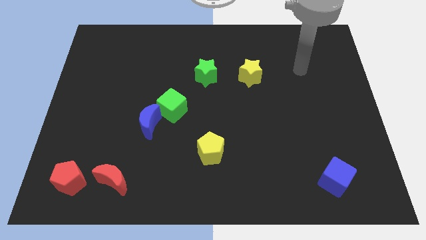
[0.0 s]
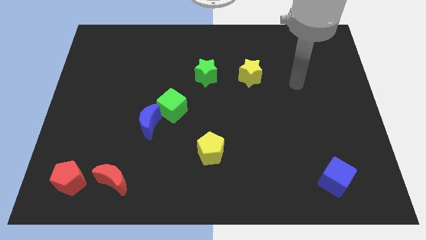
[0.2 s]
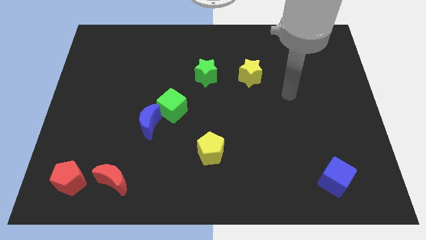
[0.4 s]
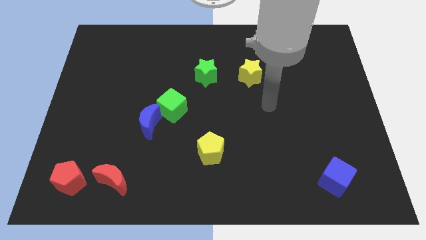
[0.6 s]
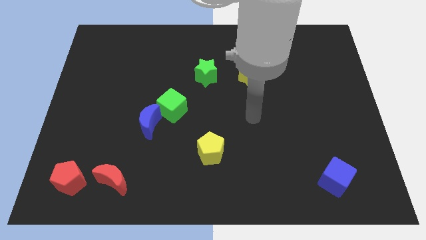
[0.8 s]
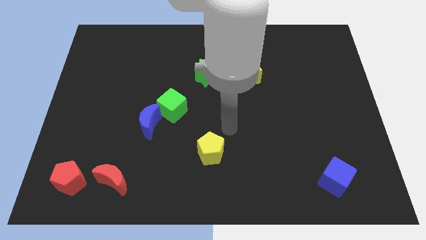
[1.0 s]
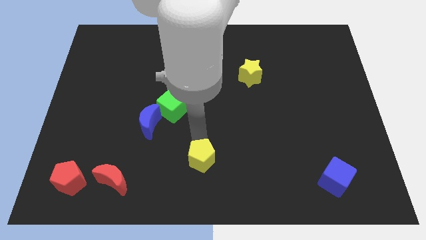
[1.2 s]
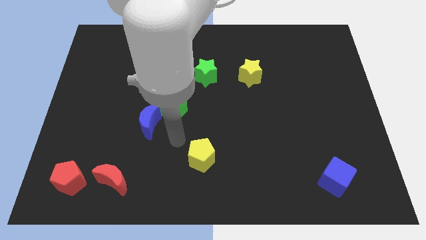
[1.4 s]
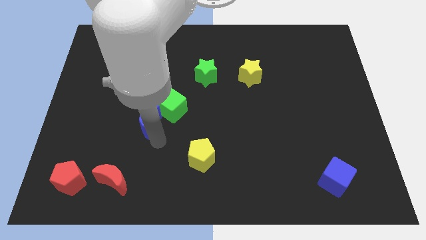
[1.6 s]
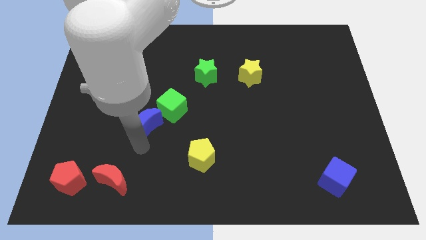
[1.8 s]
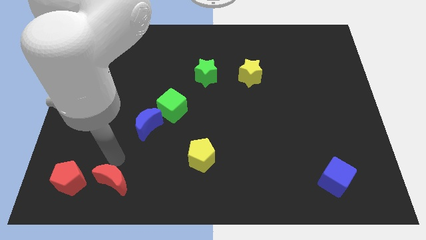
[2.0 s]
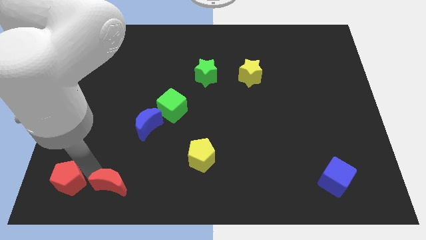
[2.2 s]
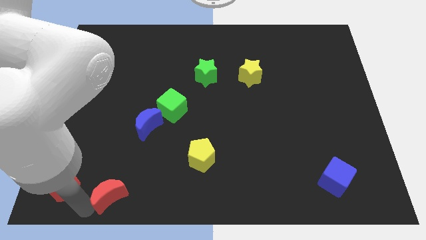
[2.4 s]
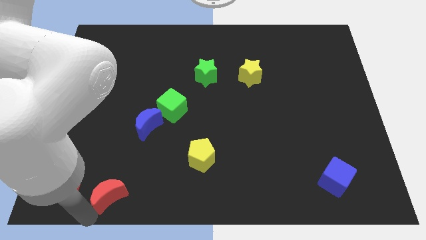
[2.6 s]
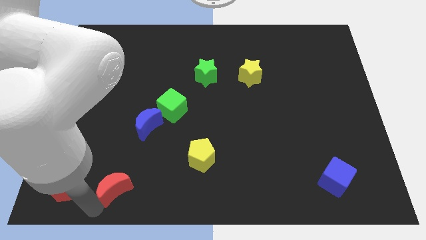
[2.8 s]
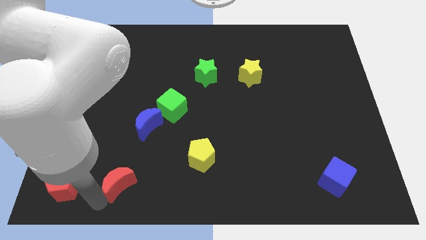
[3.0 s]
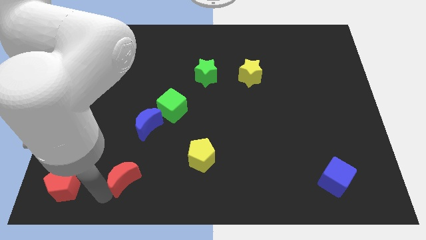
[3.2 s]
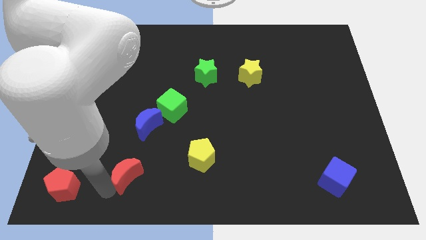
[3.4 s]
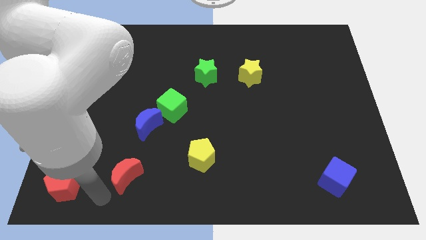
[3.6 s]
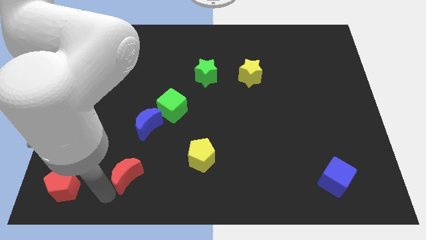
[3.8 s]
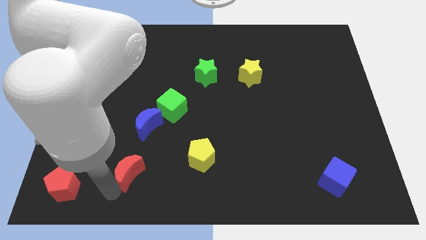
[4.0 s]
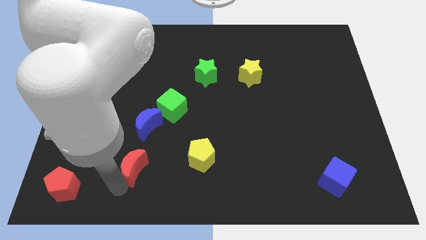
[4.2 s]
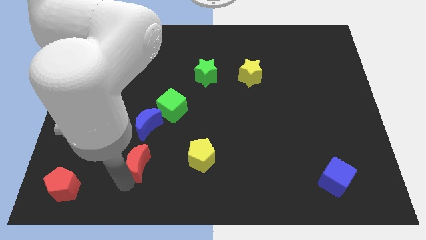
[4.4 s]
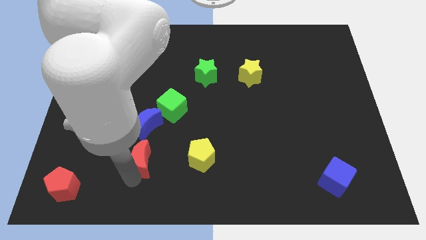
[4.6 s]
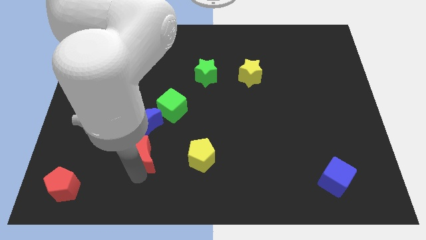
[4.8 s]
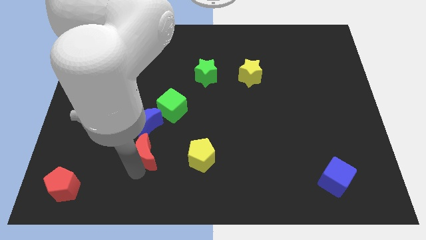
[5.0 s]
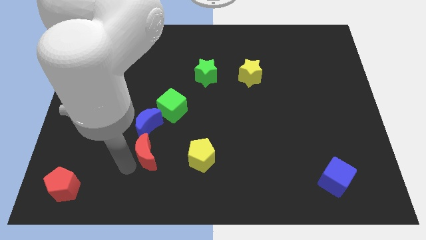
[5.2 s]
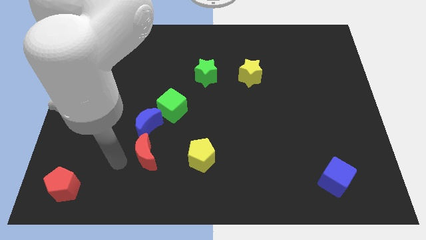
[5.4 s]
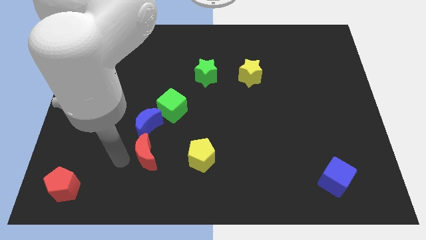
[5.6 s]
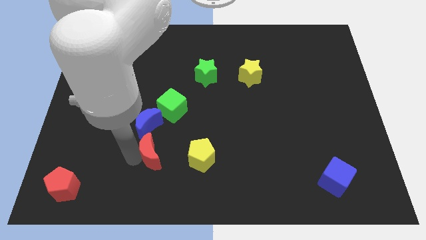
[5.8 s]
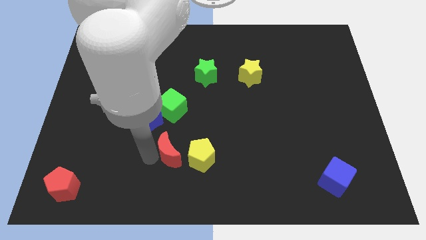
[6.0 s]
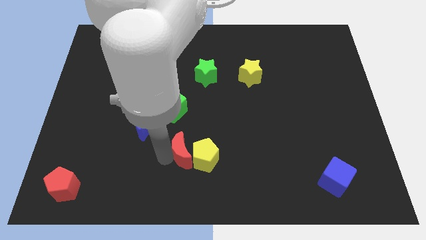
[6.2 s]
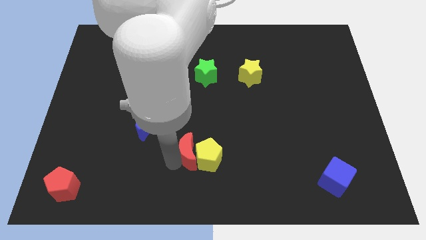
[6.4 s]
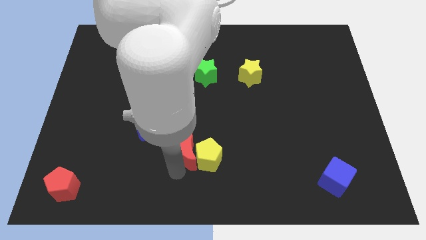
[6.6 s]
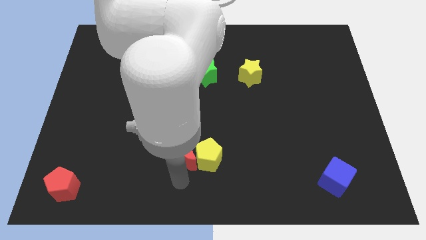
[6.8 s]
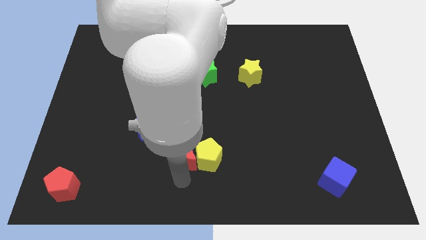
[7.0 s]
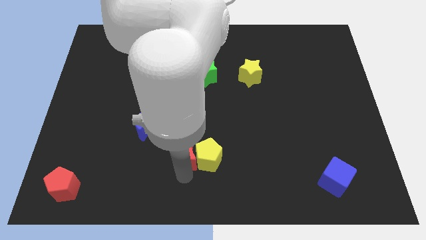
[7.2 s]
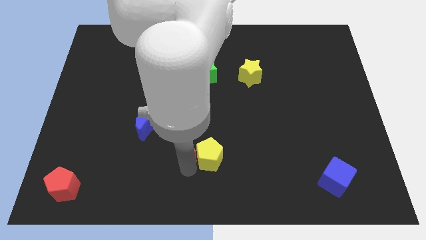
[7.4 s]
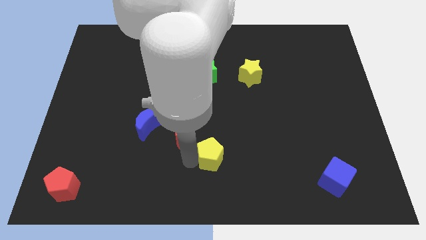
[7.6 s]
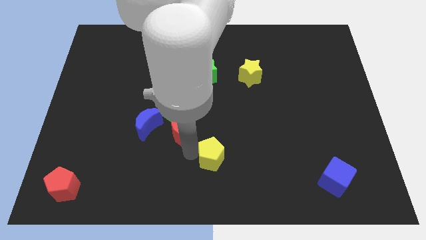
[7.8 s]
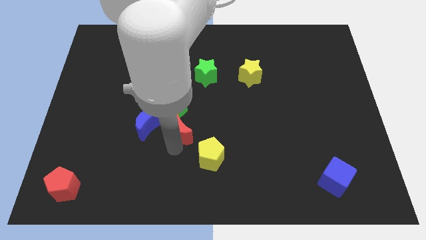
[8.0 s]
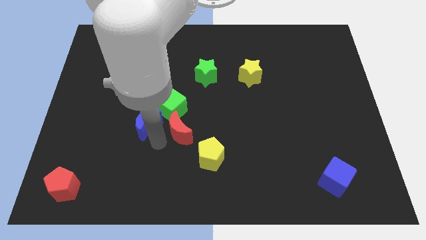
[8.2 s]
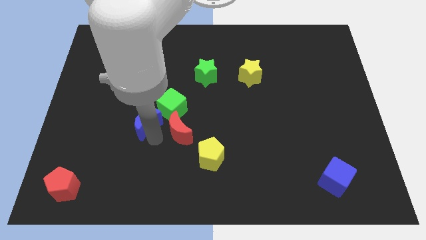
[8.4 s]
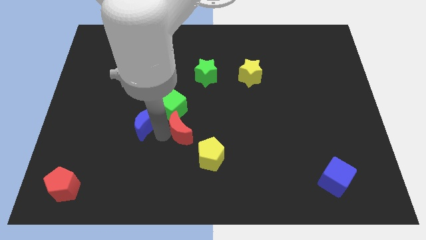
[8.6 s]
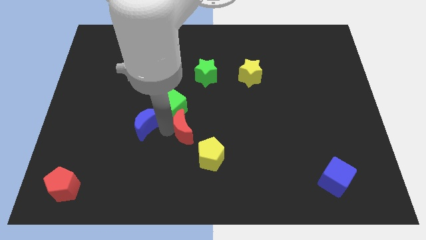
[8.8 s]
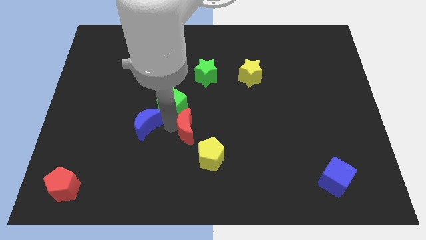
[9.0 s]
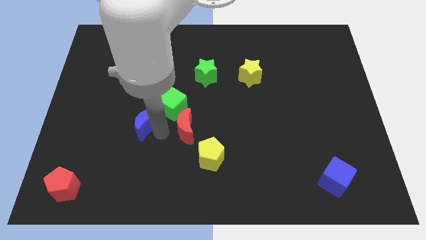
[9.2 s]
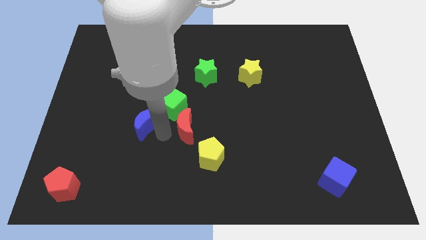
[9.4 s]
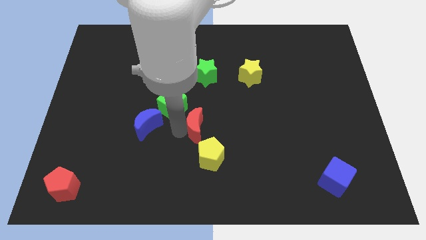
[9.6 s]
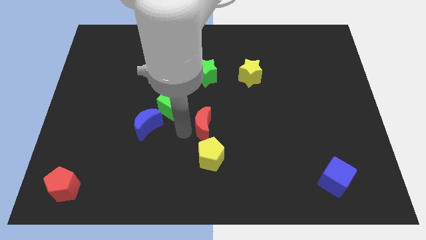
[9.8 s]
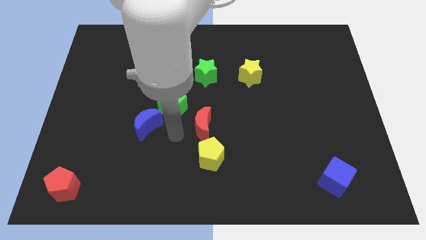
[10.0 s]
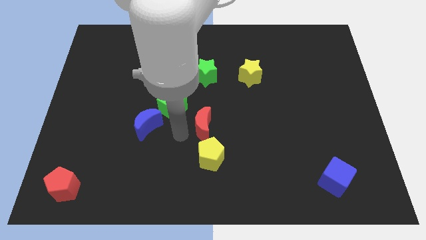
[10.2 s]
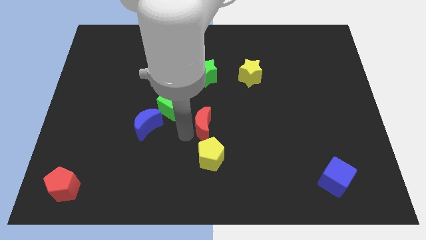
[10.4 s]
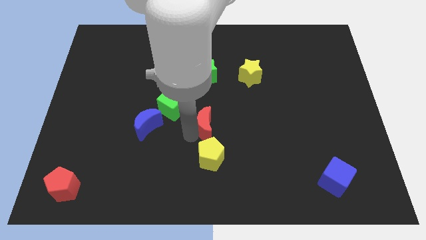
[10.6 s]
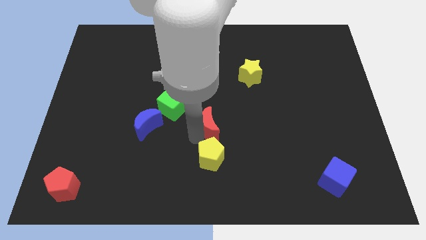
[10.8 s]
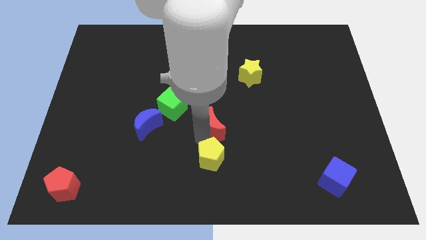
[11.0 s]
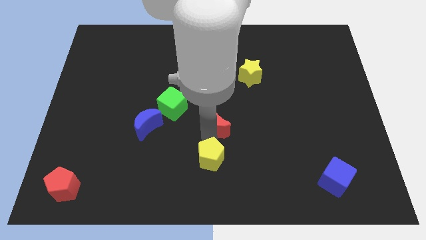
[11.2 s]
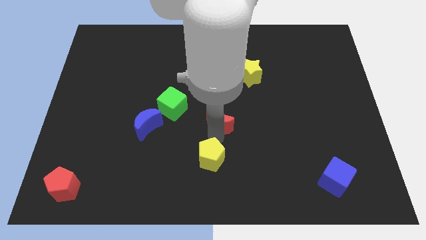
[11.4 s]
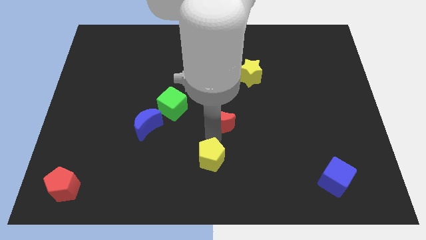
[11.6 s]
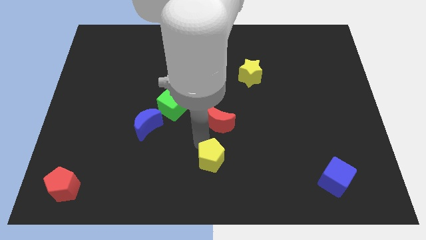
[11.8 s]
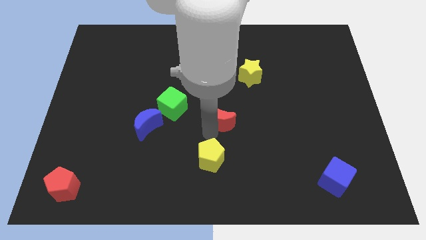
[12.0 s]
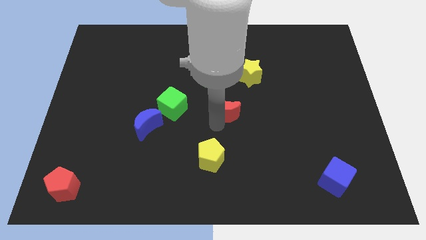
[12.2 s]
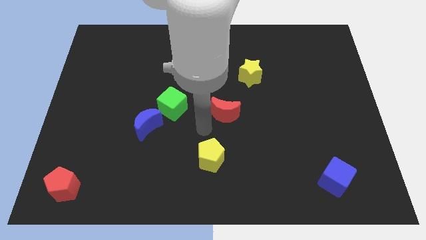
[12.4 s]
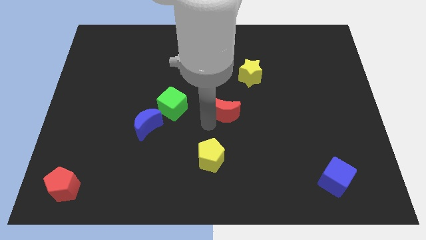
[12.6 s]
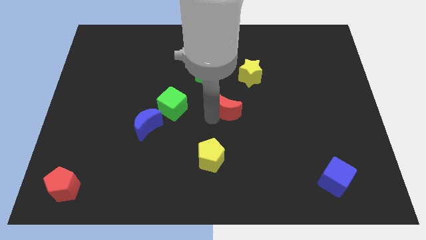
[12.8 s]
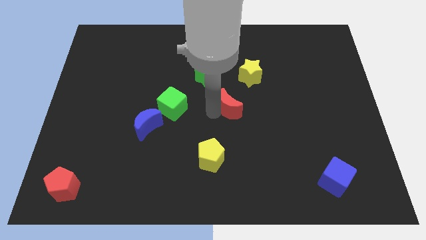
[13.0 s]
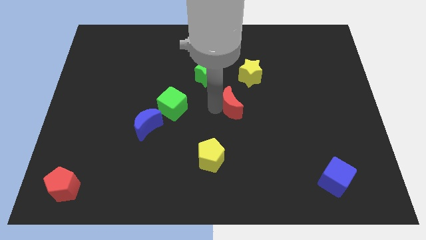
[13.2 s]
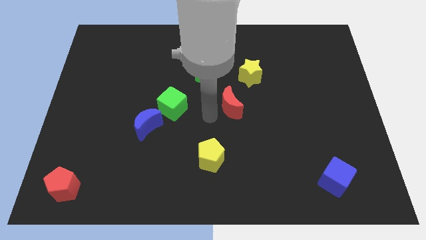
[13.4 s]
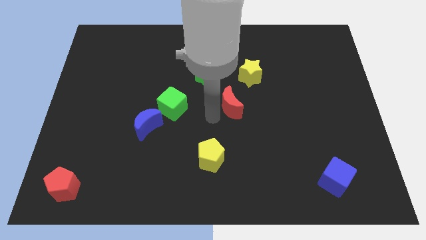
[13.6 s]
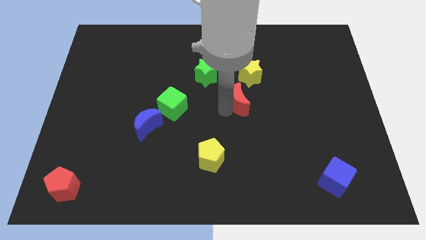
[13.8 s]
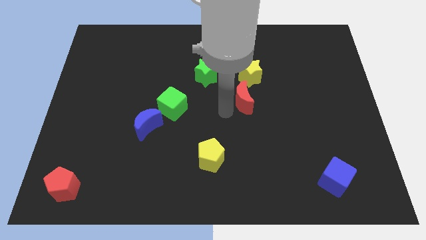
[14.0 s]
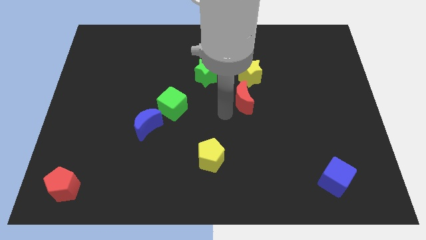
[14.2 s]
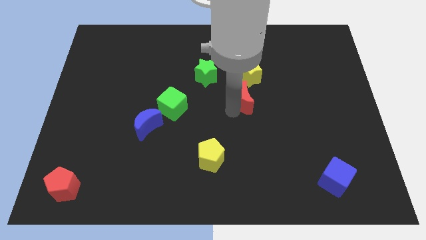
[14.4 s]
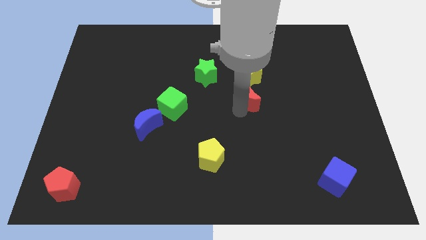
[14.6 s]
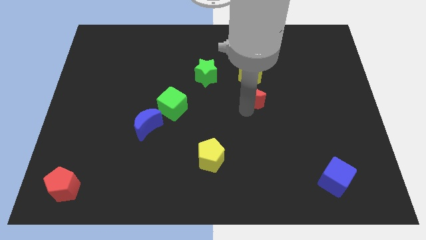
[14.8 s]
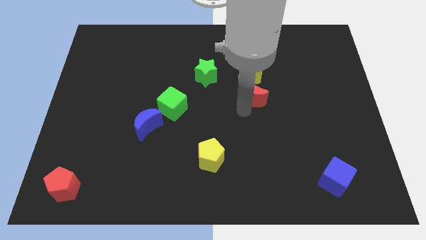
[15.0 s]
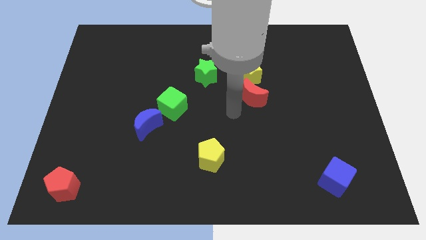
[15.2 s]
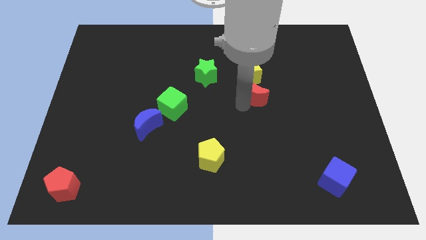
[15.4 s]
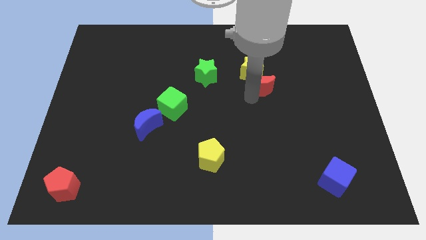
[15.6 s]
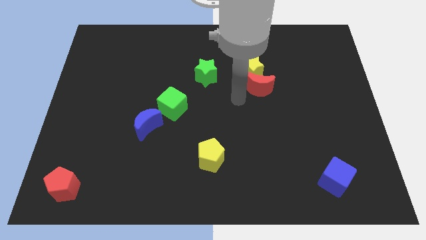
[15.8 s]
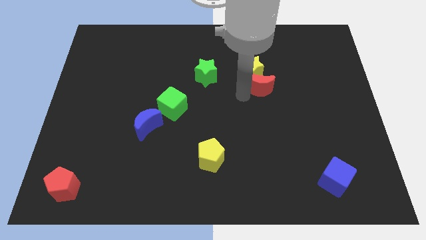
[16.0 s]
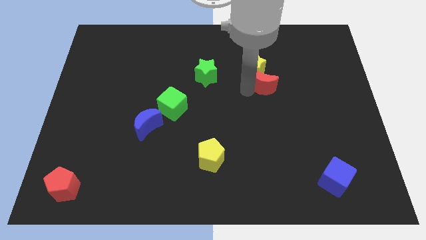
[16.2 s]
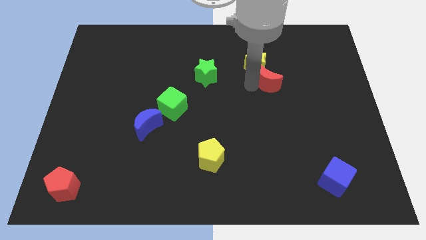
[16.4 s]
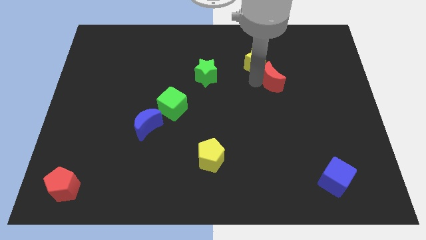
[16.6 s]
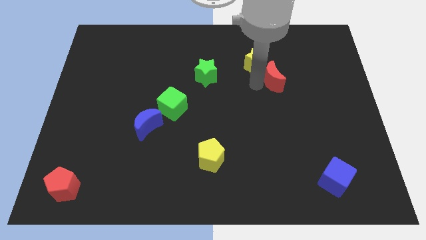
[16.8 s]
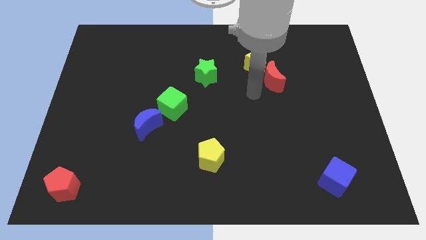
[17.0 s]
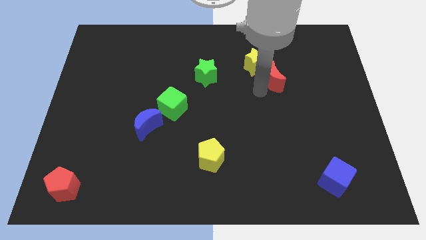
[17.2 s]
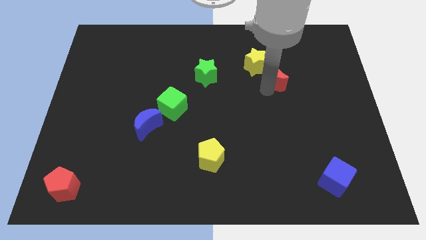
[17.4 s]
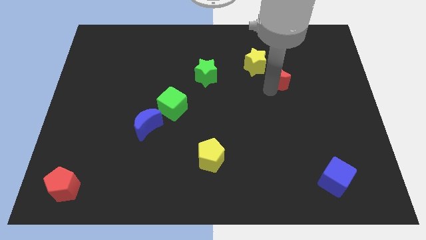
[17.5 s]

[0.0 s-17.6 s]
move the red moon right of the yellow star
